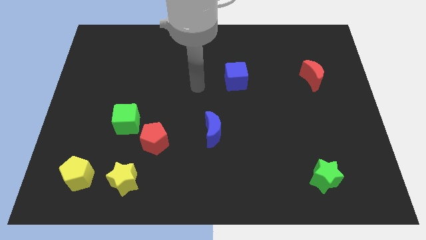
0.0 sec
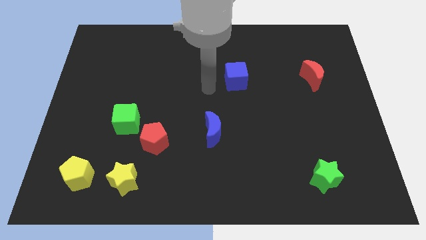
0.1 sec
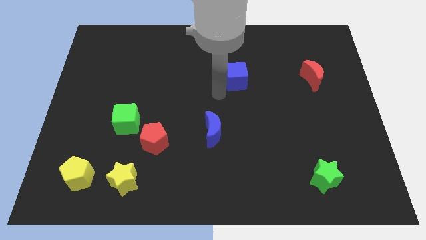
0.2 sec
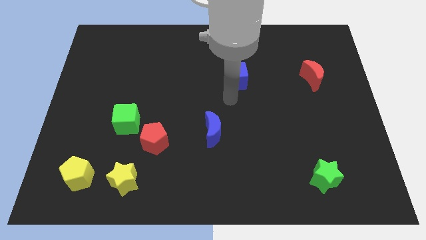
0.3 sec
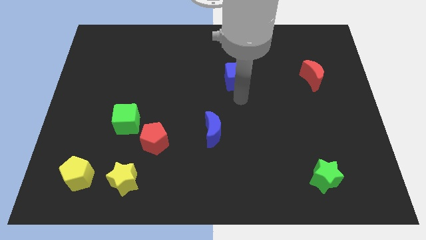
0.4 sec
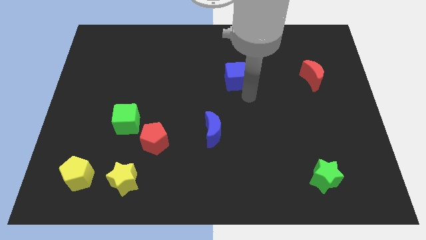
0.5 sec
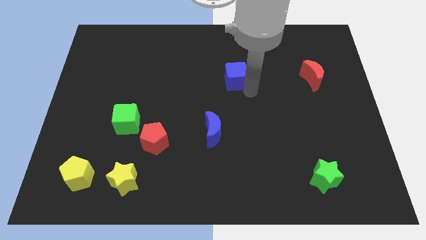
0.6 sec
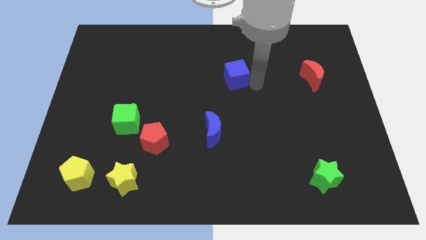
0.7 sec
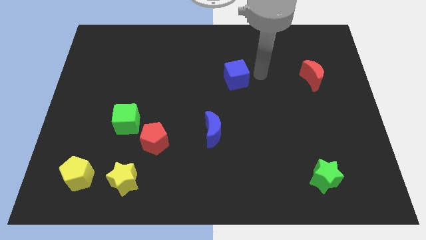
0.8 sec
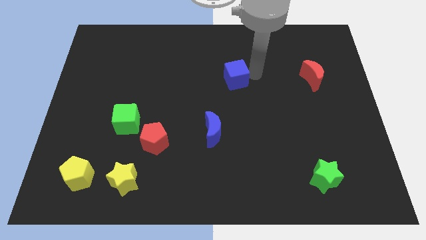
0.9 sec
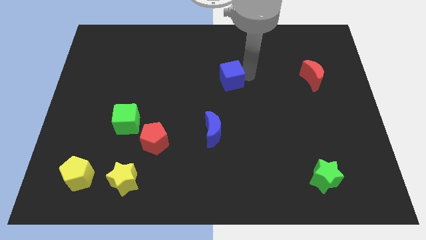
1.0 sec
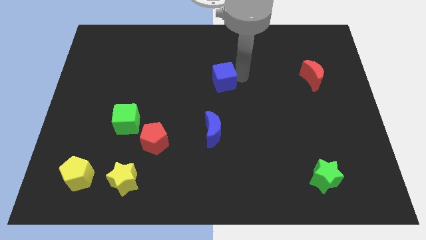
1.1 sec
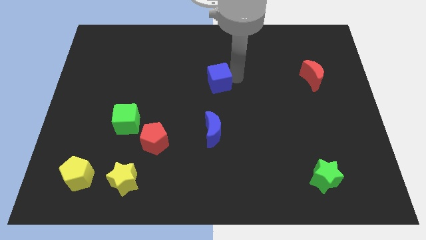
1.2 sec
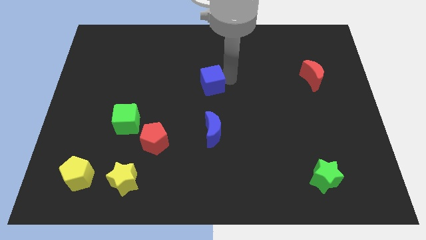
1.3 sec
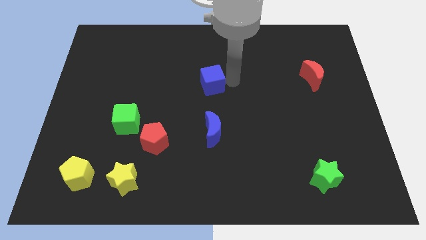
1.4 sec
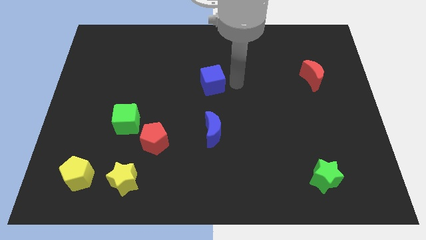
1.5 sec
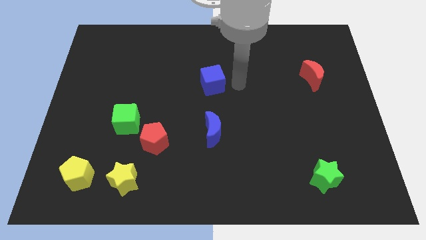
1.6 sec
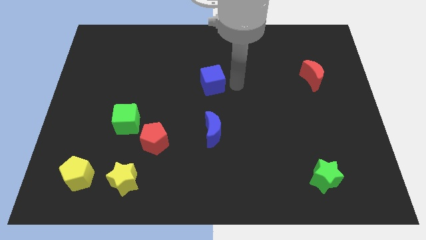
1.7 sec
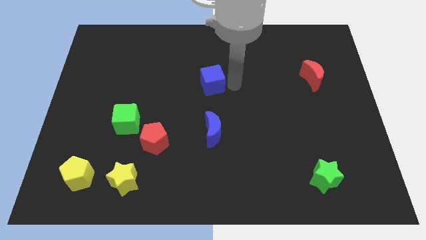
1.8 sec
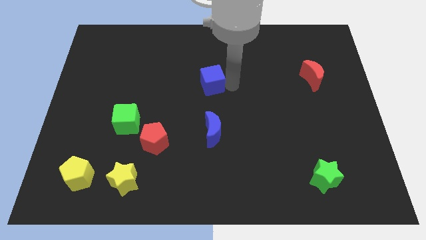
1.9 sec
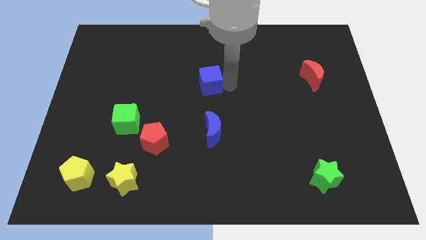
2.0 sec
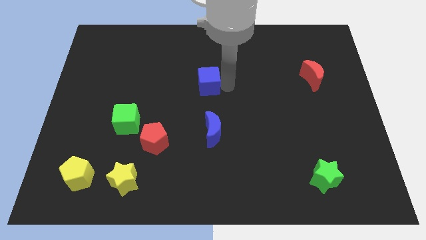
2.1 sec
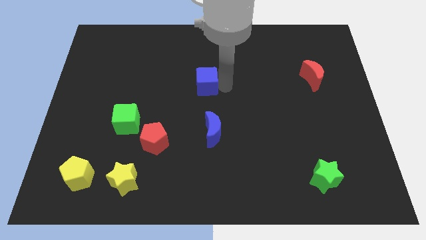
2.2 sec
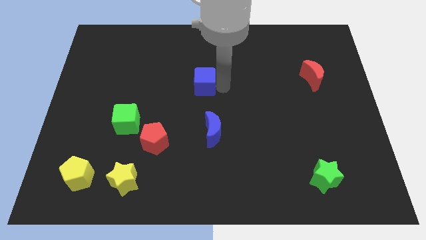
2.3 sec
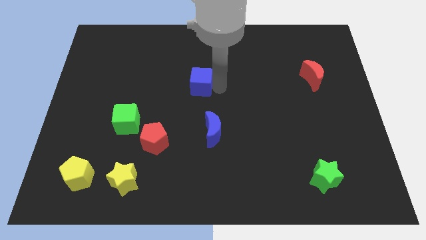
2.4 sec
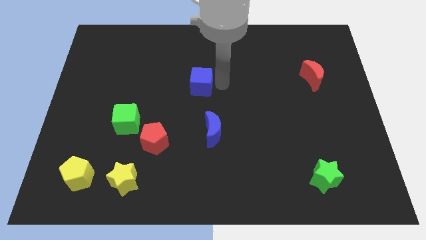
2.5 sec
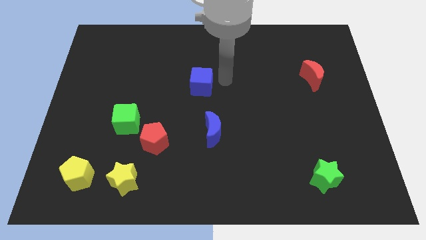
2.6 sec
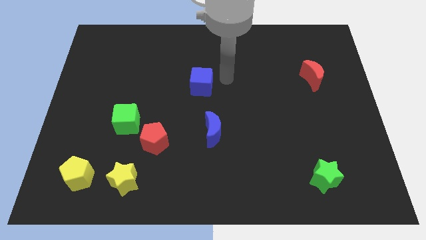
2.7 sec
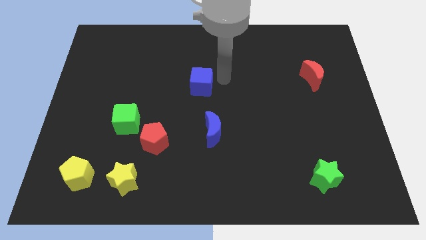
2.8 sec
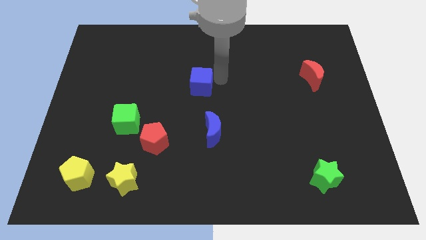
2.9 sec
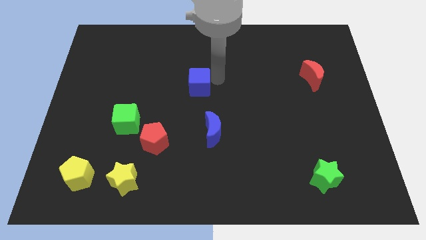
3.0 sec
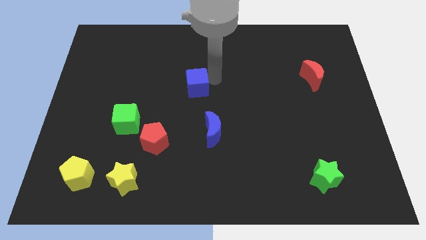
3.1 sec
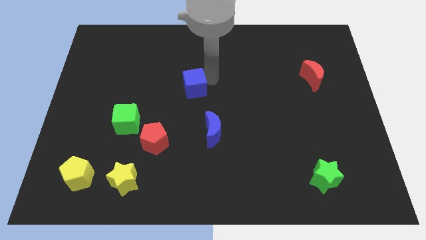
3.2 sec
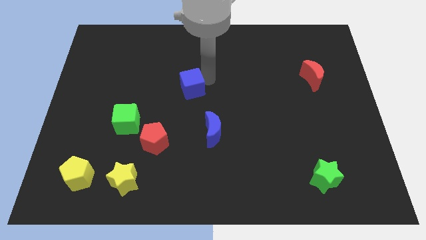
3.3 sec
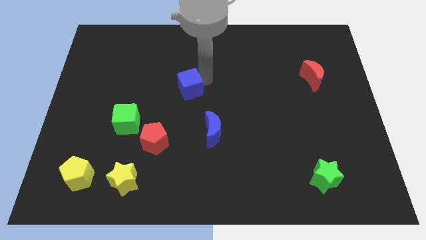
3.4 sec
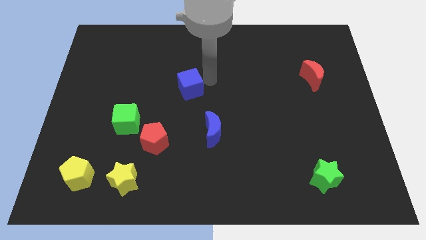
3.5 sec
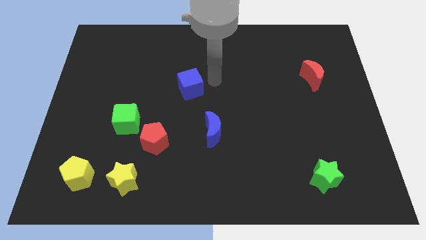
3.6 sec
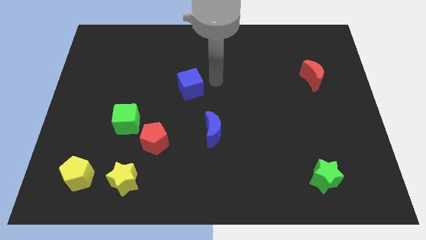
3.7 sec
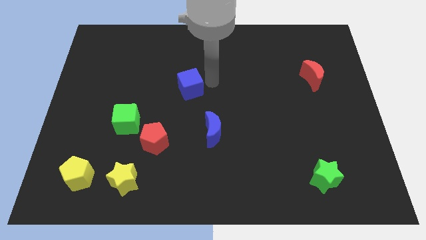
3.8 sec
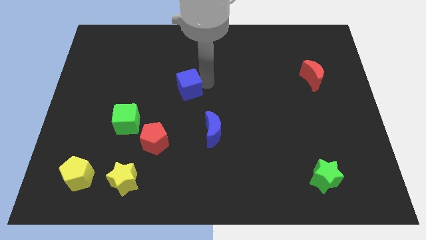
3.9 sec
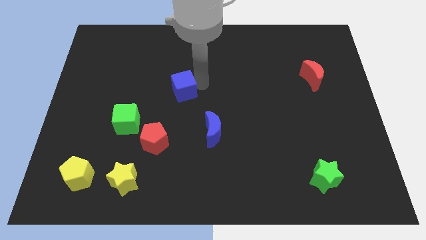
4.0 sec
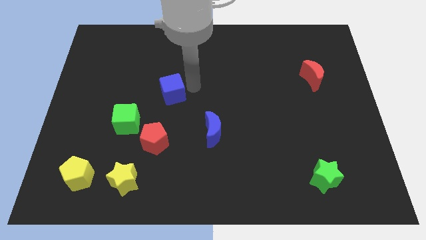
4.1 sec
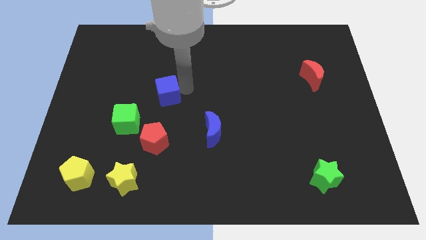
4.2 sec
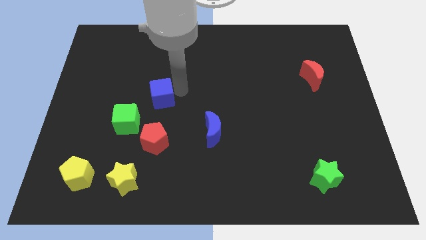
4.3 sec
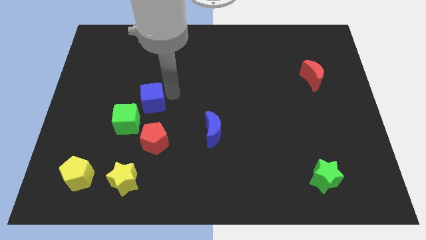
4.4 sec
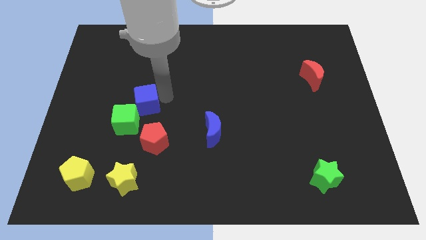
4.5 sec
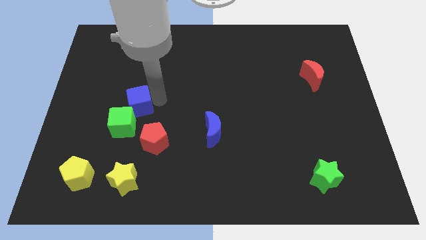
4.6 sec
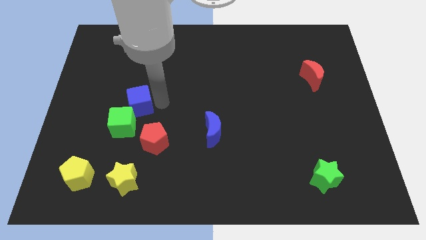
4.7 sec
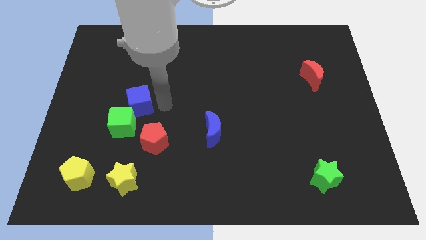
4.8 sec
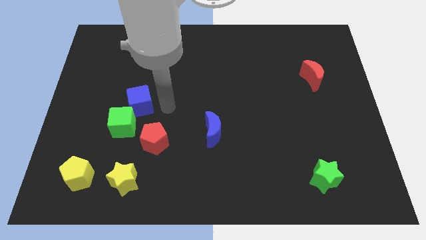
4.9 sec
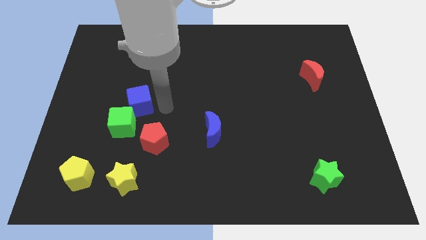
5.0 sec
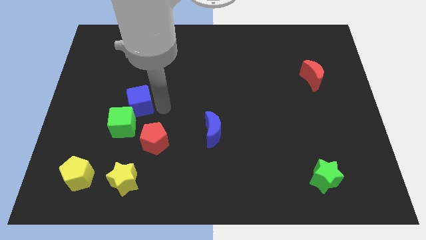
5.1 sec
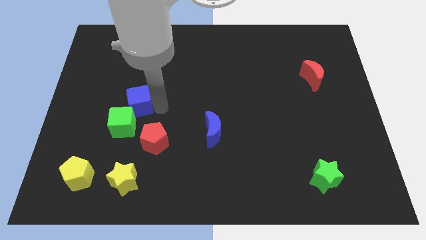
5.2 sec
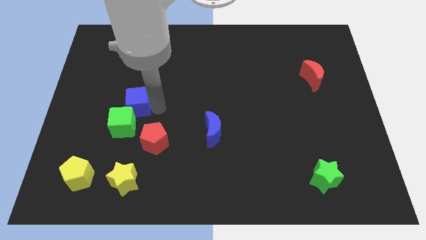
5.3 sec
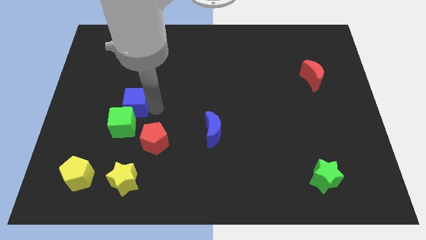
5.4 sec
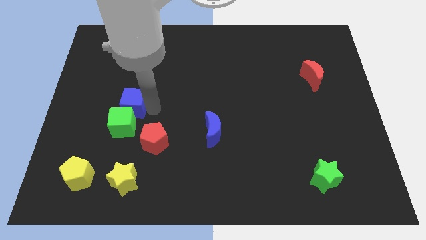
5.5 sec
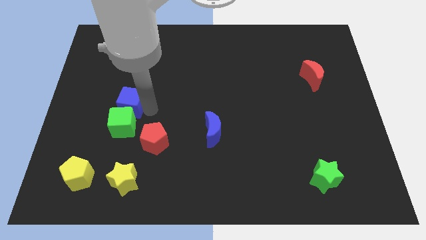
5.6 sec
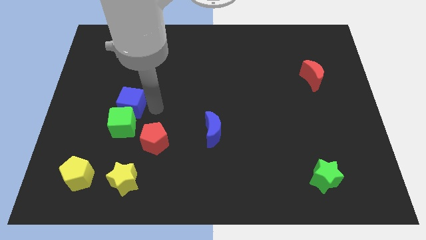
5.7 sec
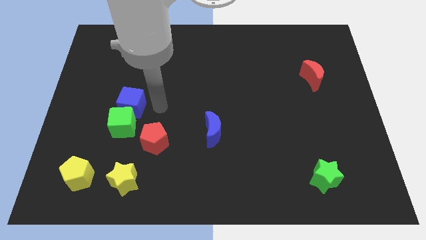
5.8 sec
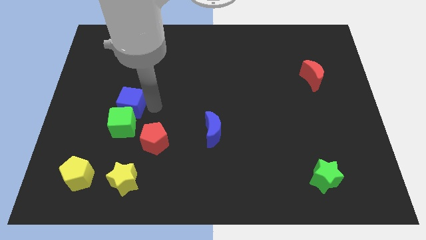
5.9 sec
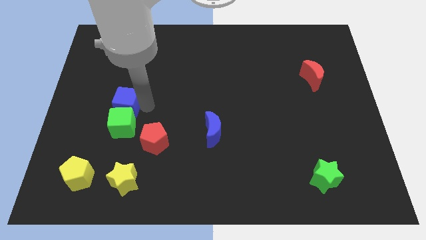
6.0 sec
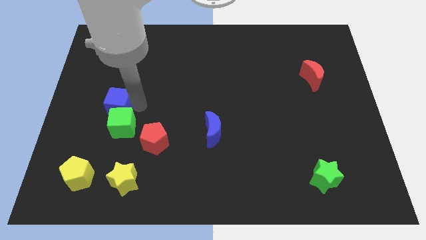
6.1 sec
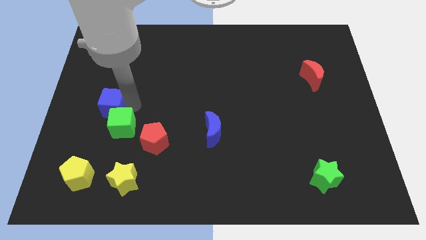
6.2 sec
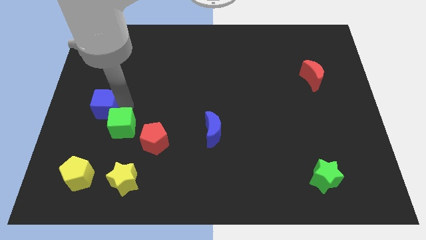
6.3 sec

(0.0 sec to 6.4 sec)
put the blue cube to the center left
